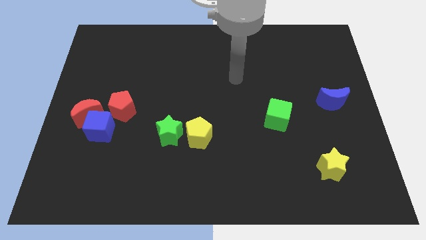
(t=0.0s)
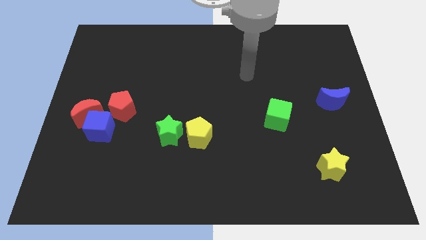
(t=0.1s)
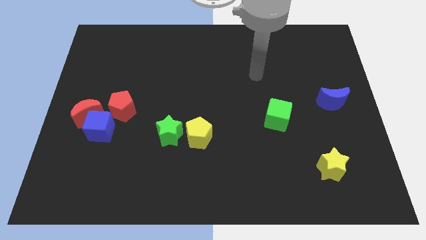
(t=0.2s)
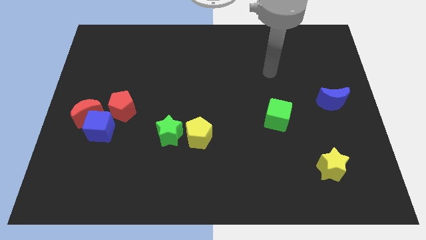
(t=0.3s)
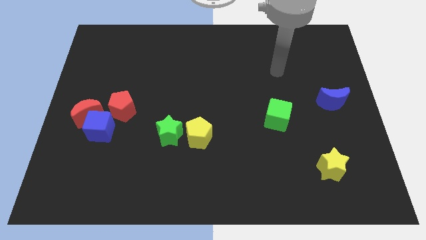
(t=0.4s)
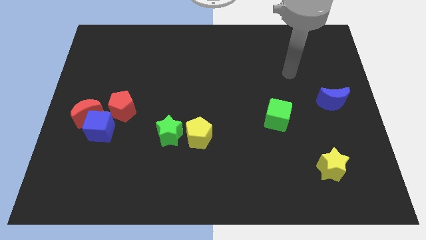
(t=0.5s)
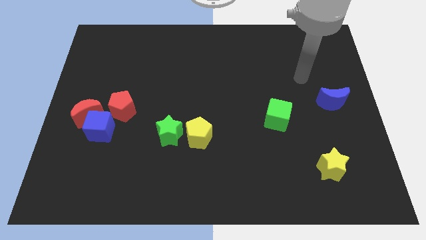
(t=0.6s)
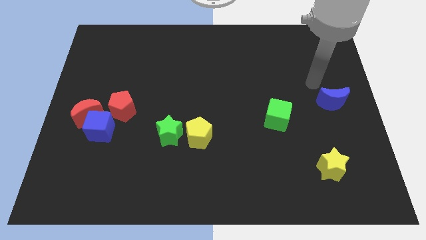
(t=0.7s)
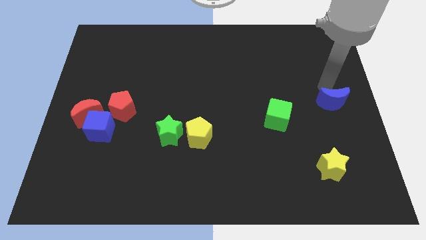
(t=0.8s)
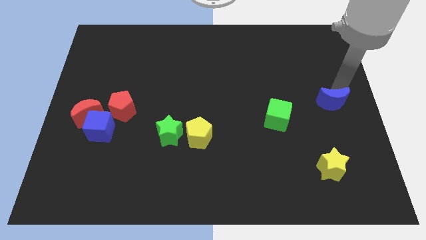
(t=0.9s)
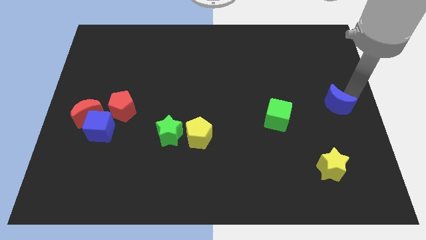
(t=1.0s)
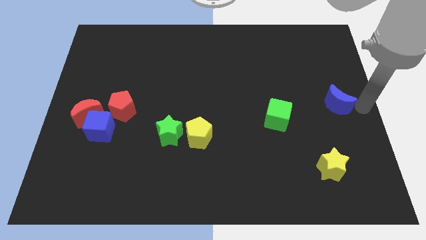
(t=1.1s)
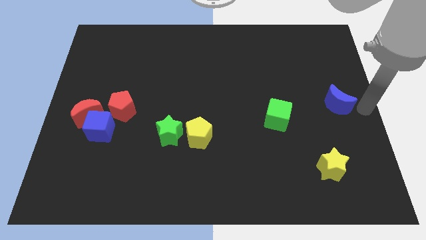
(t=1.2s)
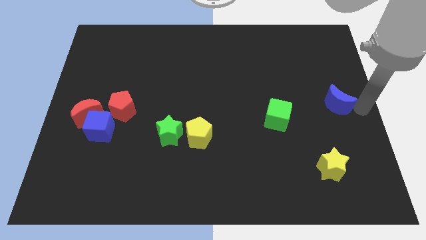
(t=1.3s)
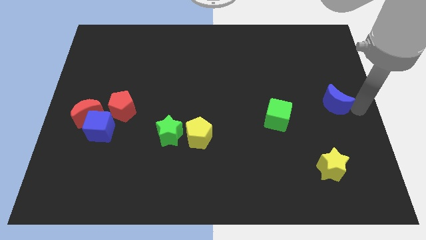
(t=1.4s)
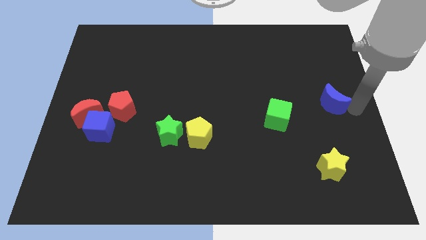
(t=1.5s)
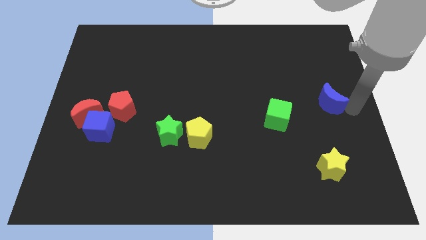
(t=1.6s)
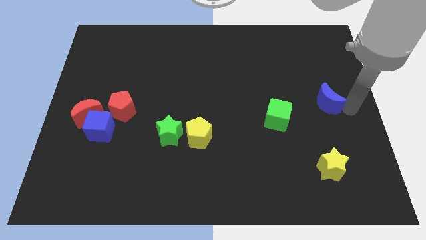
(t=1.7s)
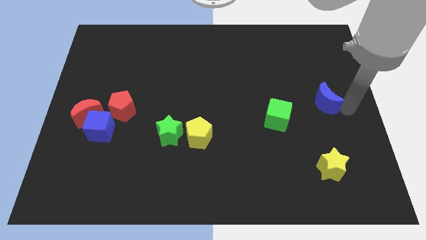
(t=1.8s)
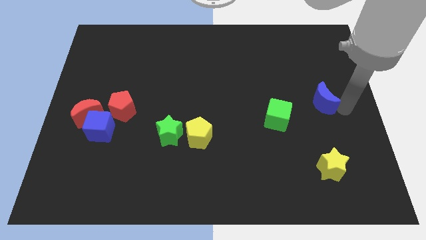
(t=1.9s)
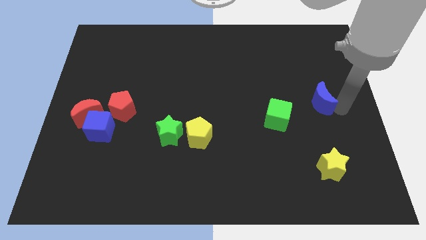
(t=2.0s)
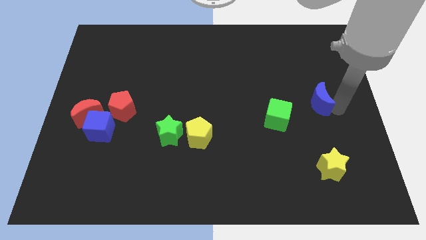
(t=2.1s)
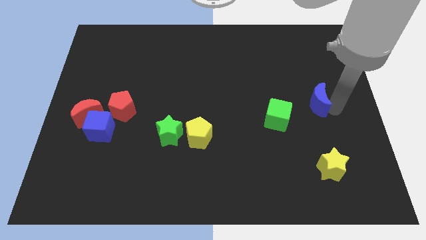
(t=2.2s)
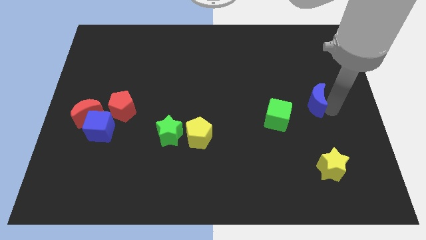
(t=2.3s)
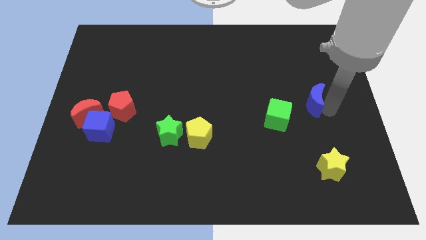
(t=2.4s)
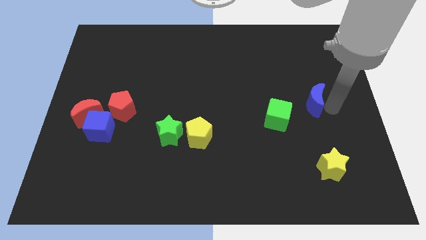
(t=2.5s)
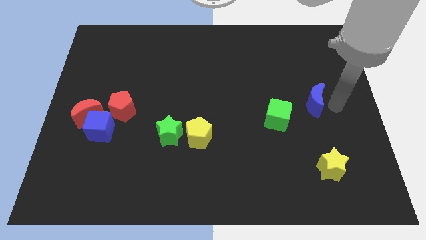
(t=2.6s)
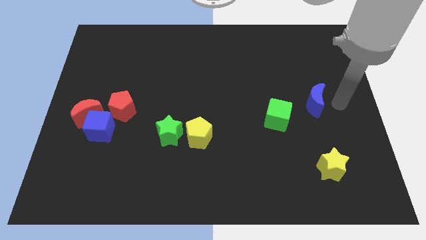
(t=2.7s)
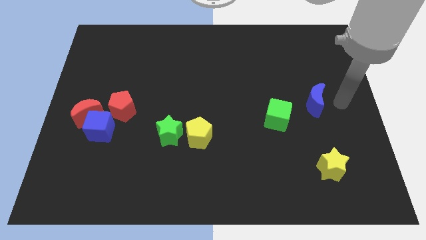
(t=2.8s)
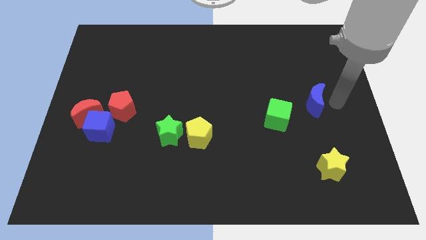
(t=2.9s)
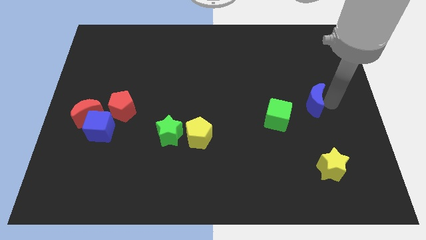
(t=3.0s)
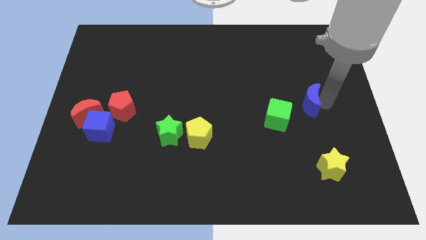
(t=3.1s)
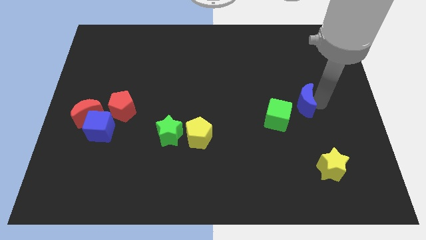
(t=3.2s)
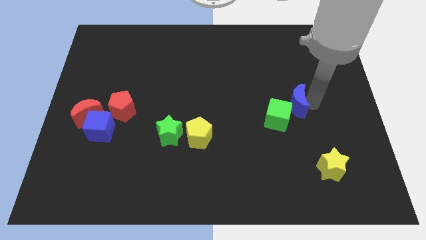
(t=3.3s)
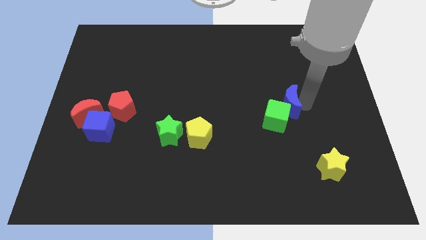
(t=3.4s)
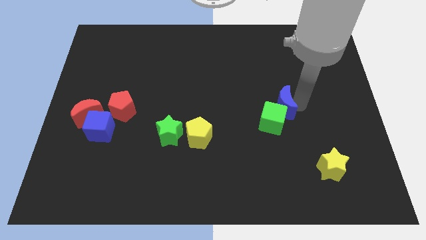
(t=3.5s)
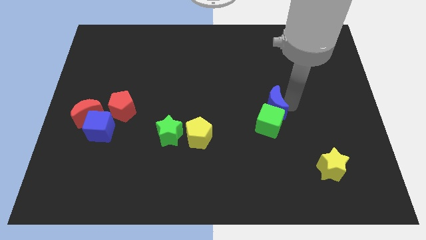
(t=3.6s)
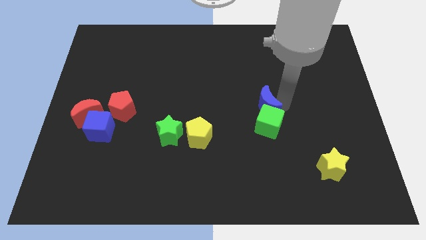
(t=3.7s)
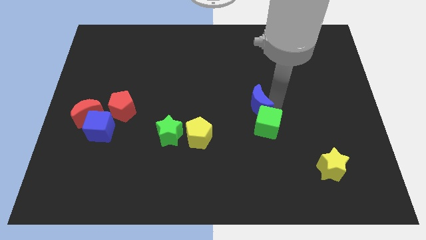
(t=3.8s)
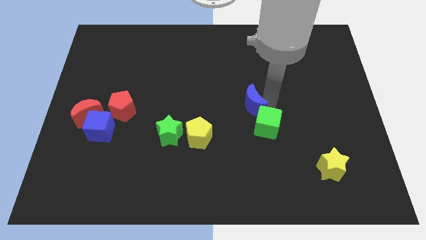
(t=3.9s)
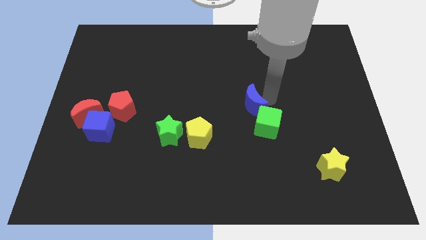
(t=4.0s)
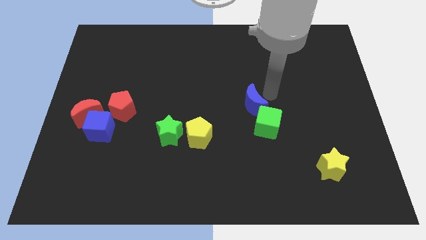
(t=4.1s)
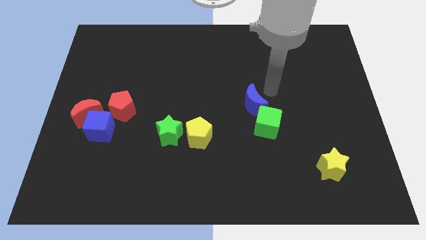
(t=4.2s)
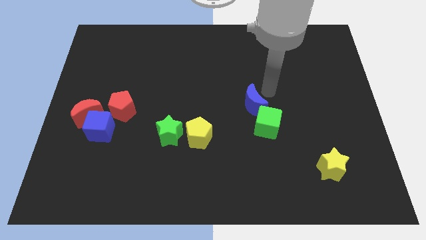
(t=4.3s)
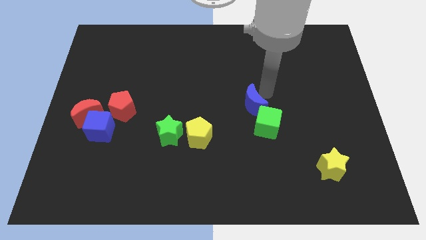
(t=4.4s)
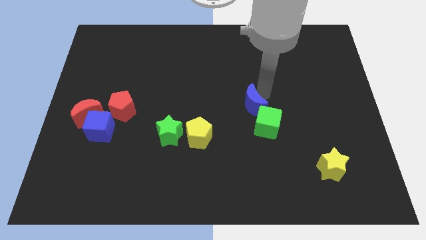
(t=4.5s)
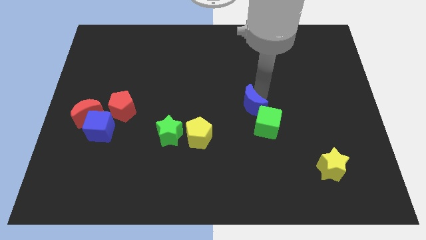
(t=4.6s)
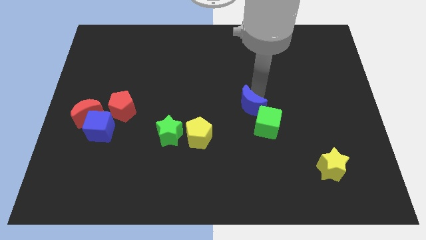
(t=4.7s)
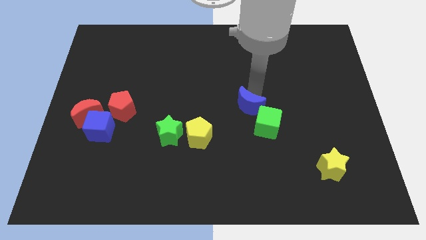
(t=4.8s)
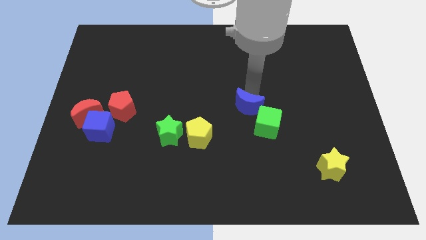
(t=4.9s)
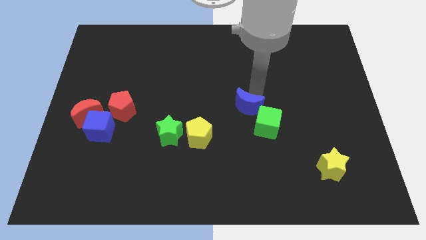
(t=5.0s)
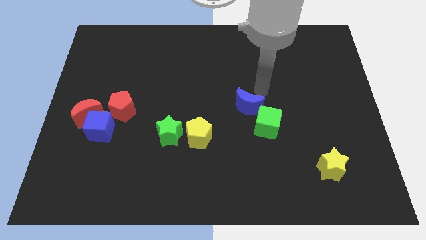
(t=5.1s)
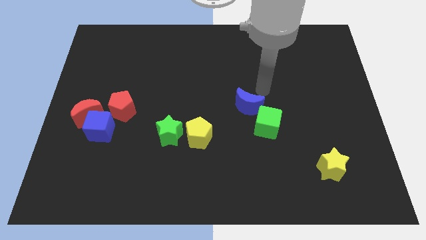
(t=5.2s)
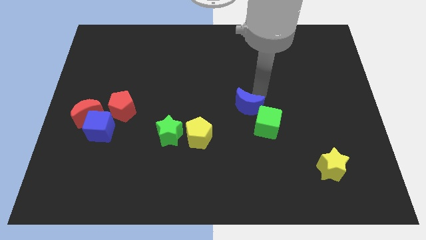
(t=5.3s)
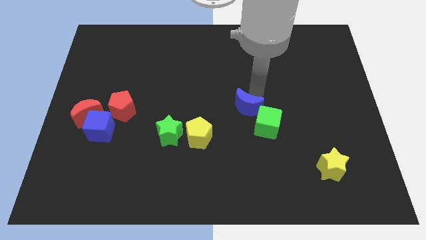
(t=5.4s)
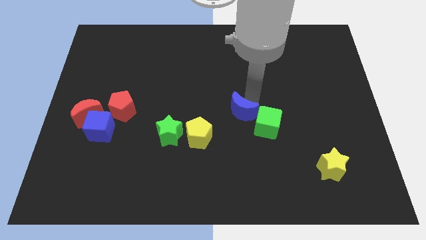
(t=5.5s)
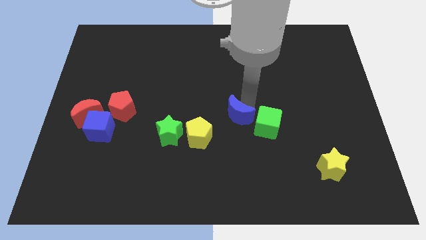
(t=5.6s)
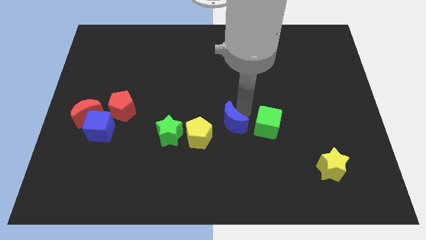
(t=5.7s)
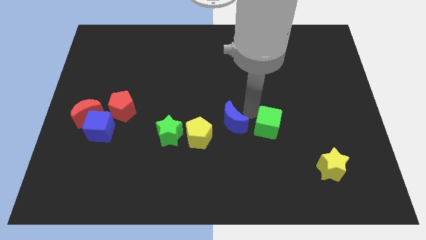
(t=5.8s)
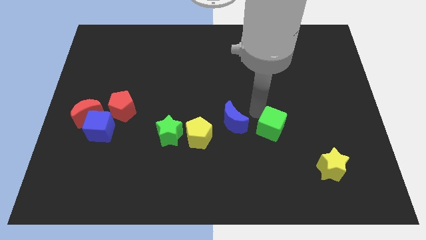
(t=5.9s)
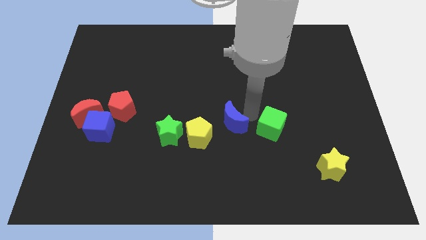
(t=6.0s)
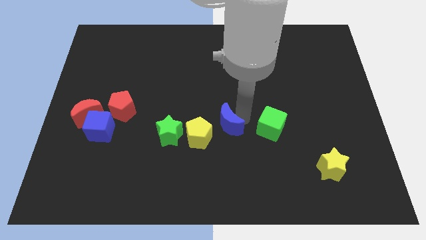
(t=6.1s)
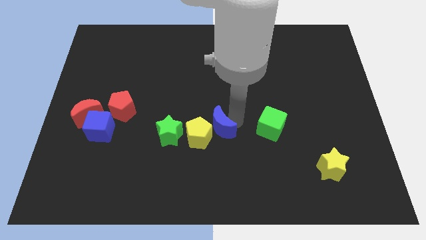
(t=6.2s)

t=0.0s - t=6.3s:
slide the blue moon to the yellow pentagon

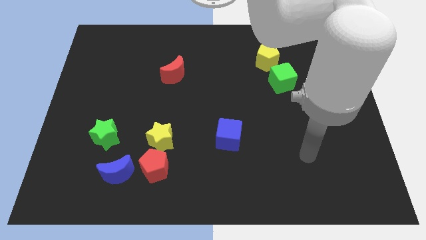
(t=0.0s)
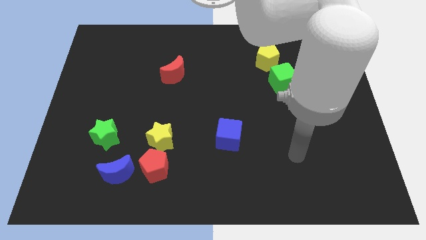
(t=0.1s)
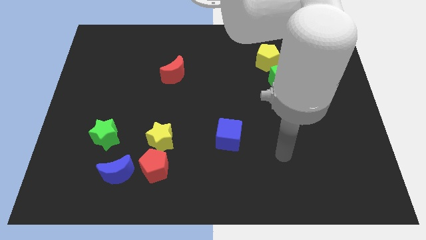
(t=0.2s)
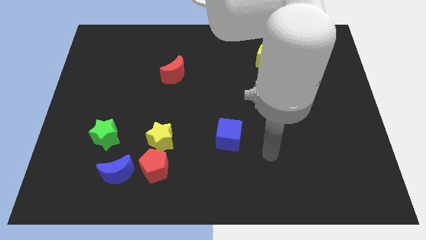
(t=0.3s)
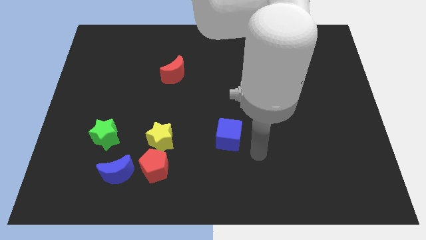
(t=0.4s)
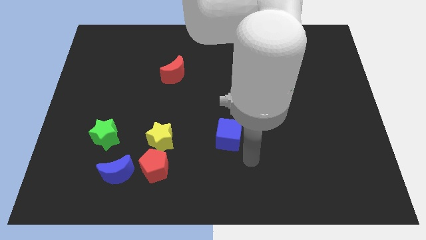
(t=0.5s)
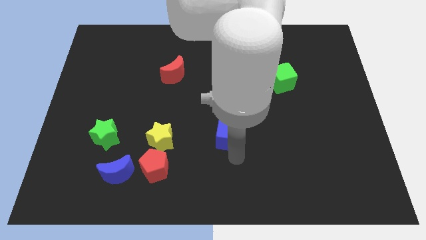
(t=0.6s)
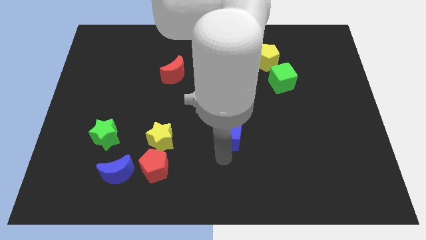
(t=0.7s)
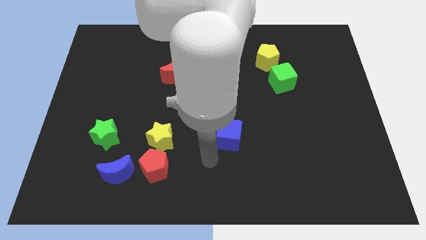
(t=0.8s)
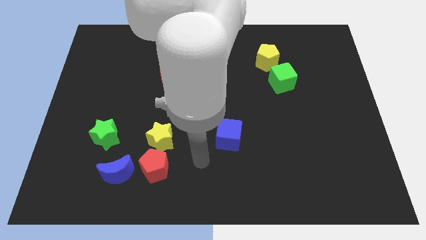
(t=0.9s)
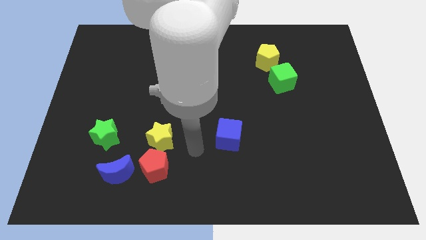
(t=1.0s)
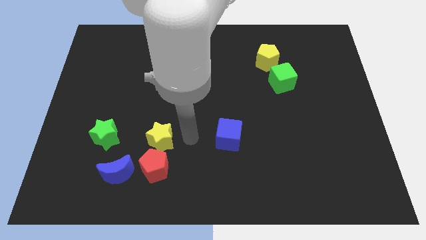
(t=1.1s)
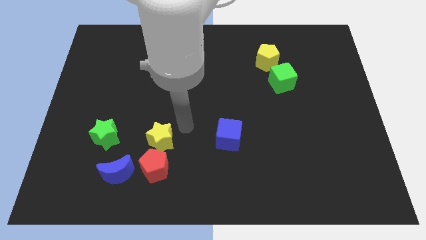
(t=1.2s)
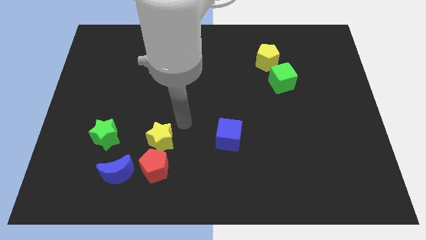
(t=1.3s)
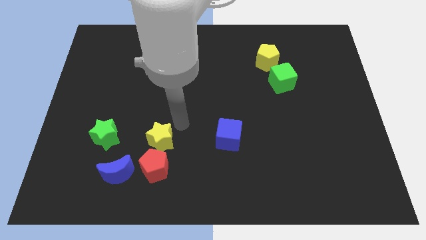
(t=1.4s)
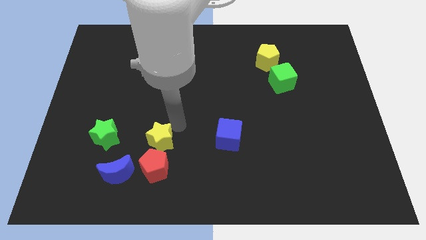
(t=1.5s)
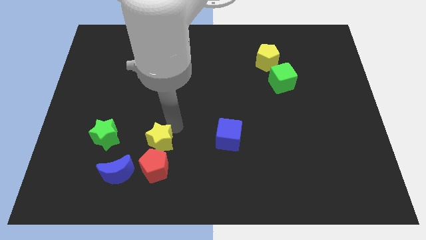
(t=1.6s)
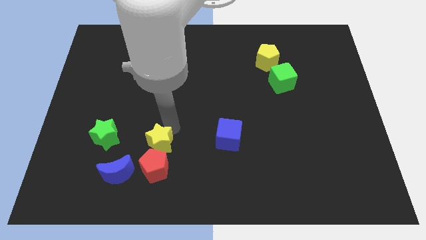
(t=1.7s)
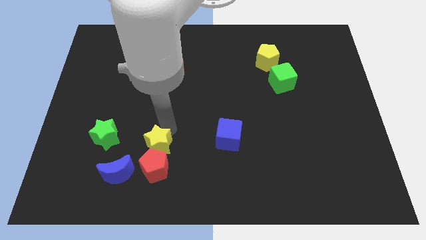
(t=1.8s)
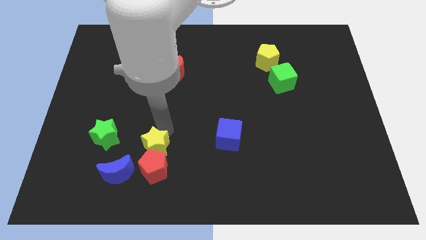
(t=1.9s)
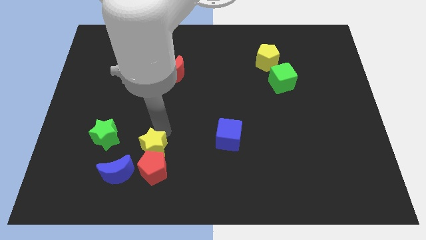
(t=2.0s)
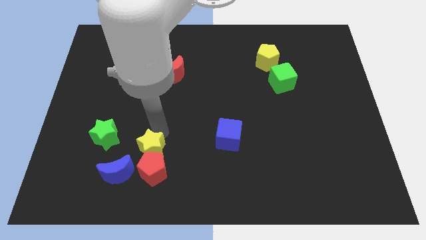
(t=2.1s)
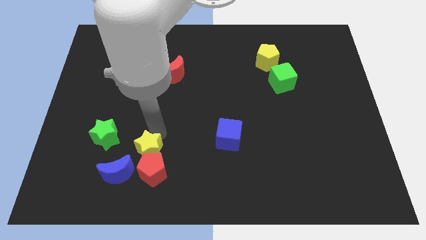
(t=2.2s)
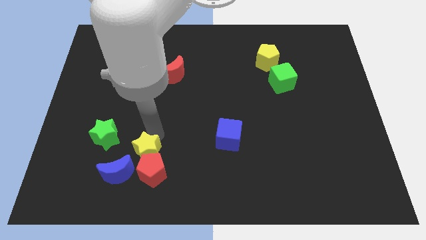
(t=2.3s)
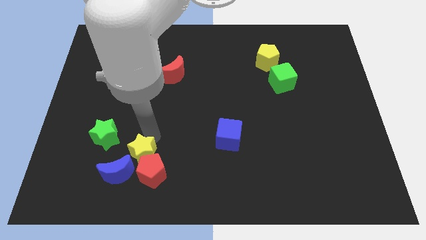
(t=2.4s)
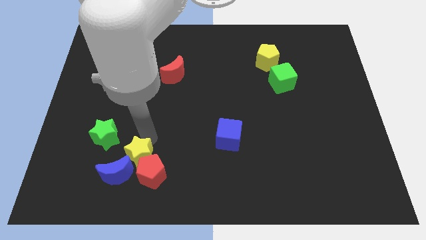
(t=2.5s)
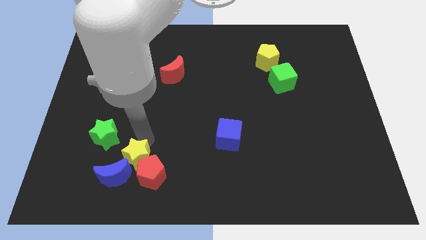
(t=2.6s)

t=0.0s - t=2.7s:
put the yellow star next to the blue moon
